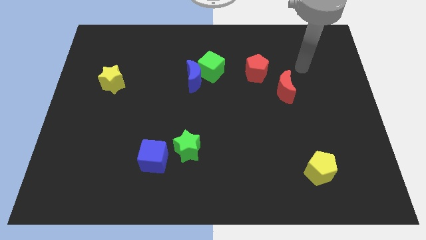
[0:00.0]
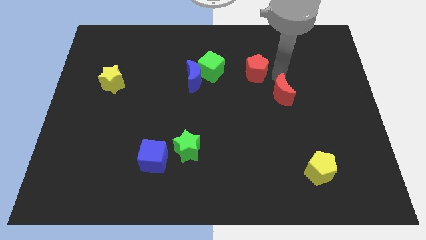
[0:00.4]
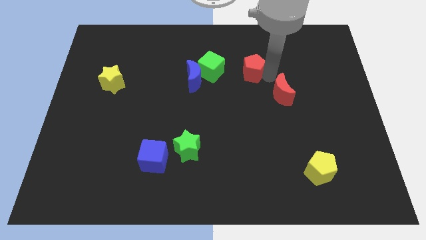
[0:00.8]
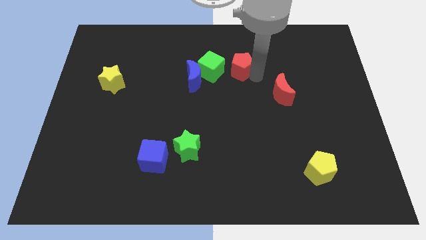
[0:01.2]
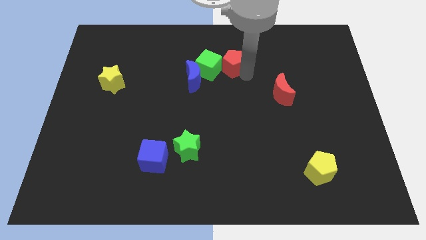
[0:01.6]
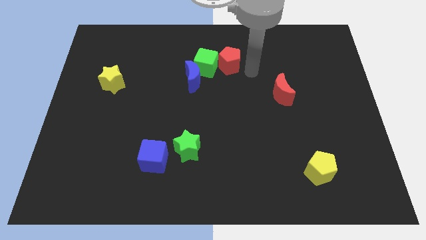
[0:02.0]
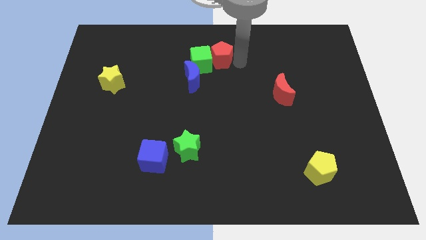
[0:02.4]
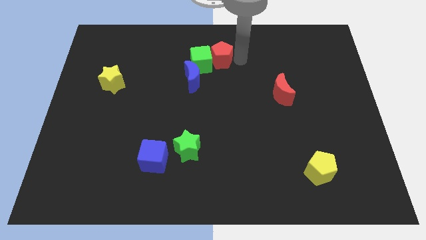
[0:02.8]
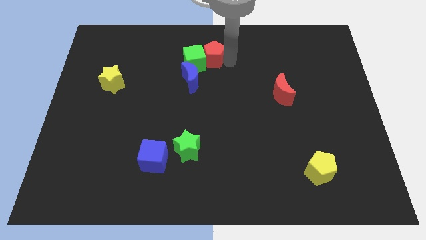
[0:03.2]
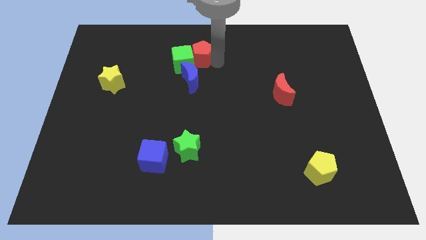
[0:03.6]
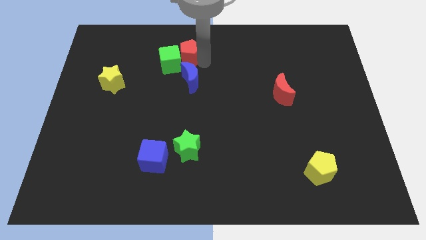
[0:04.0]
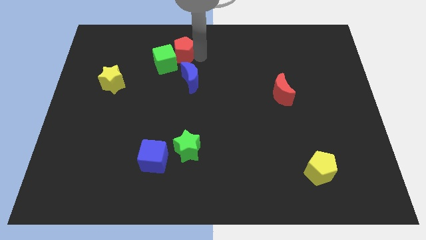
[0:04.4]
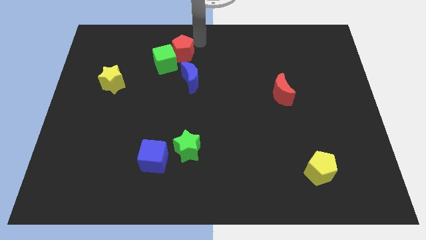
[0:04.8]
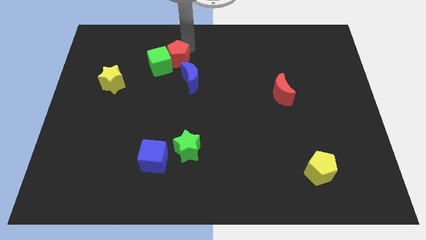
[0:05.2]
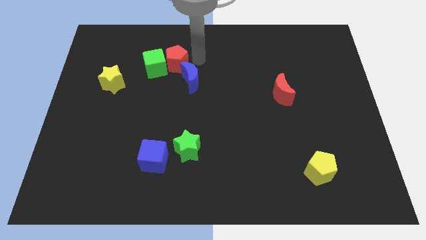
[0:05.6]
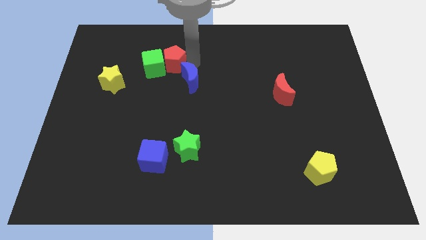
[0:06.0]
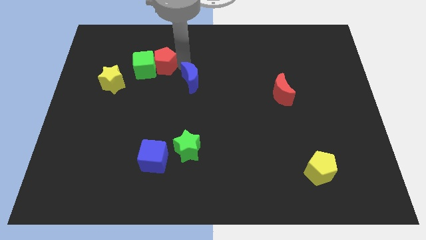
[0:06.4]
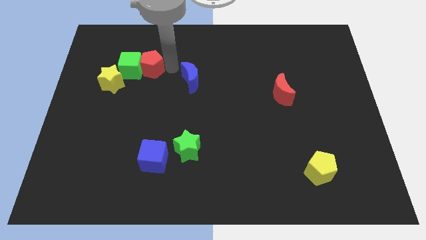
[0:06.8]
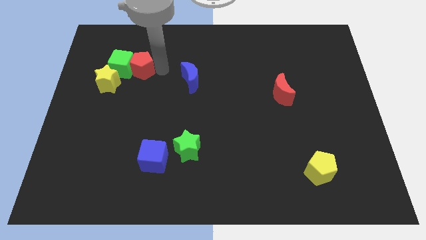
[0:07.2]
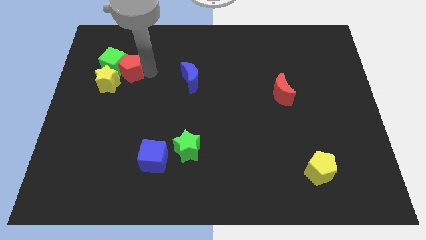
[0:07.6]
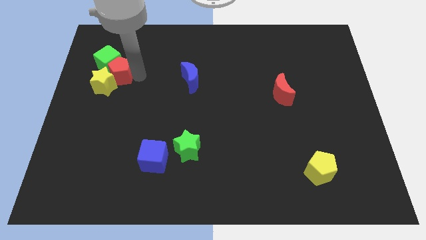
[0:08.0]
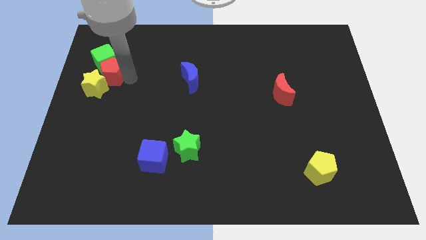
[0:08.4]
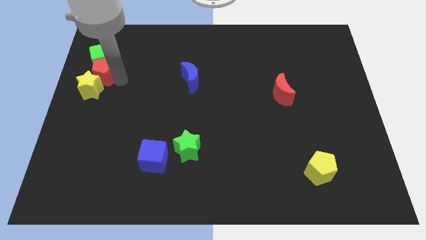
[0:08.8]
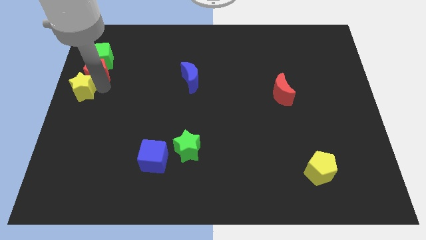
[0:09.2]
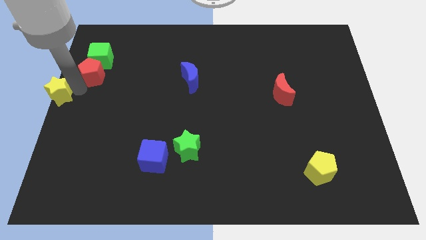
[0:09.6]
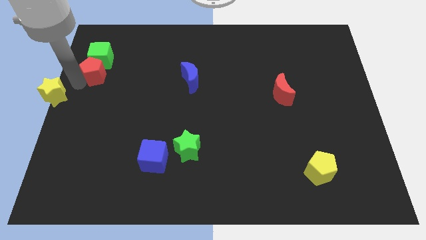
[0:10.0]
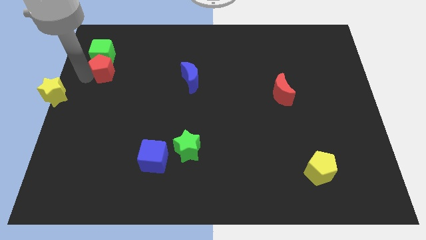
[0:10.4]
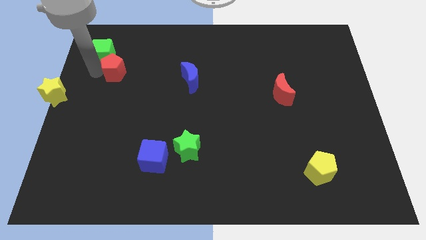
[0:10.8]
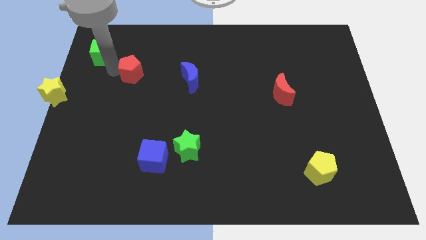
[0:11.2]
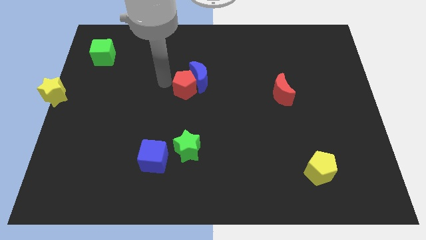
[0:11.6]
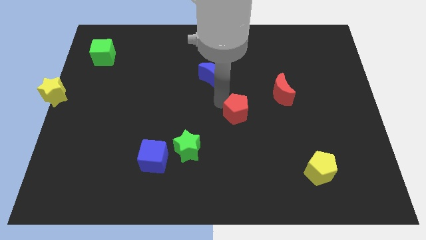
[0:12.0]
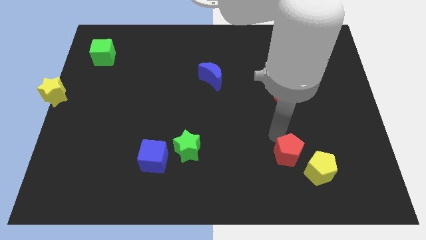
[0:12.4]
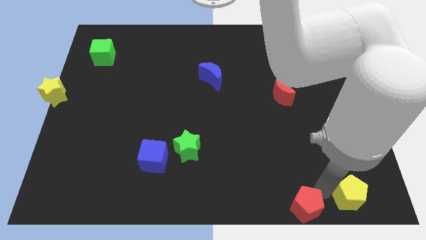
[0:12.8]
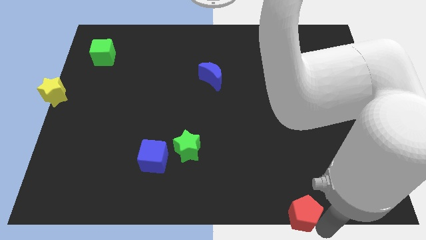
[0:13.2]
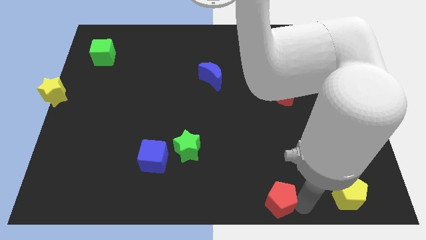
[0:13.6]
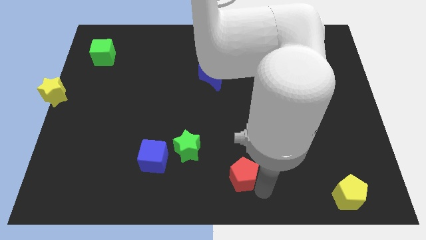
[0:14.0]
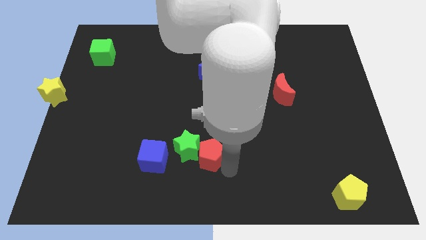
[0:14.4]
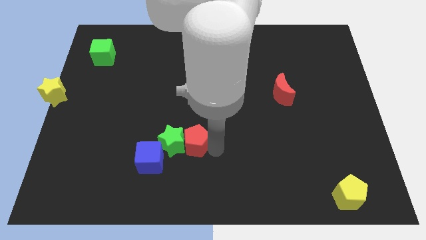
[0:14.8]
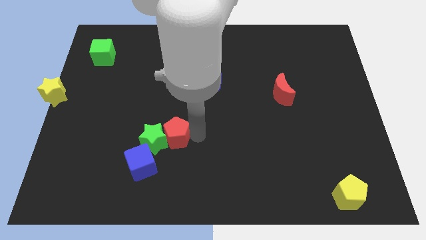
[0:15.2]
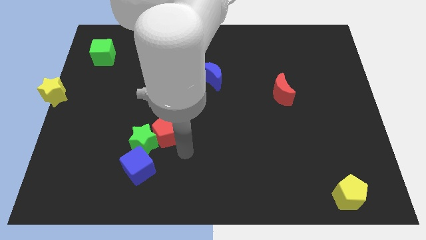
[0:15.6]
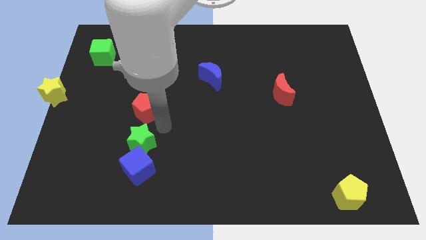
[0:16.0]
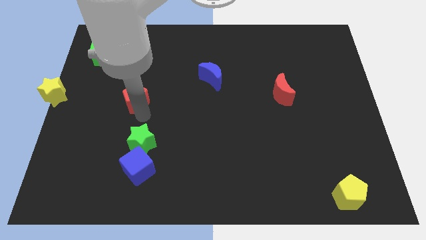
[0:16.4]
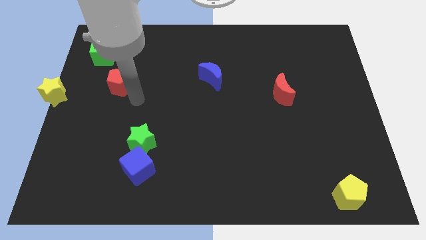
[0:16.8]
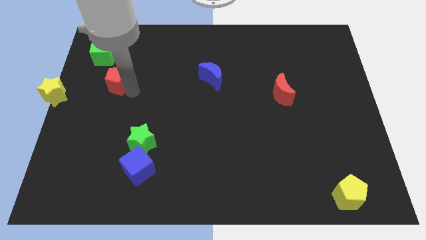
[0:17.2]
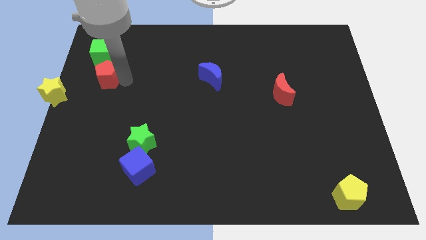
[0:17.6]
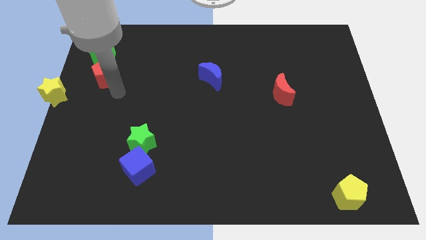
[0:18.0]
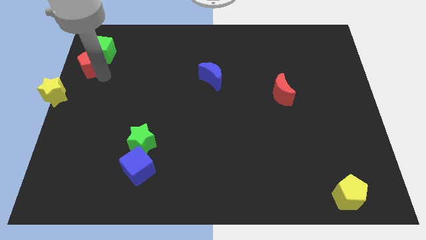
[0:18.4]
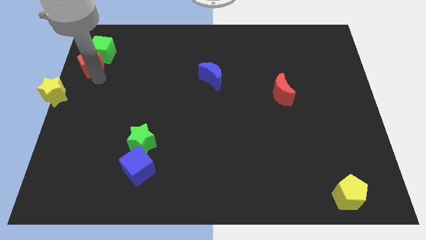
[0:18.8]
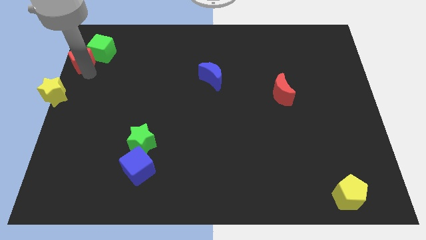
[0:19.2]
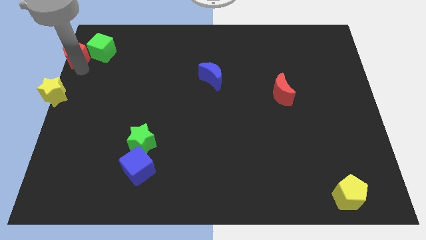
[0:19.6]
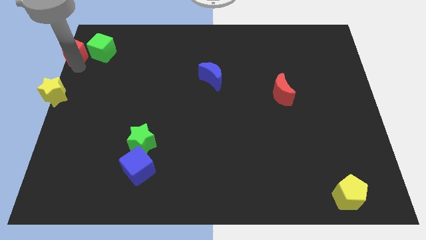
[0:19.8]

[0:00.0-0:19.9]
slide the red pentagon to the top left of the board

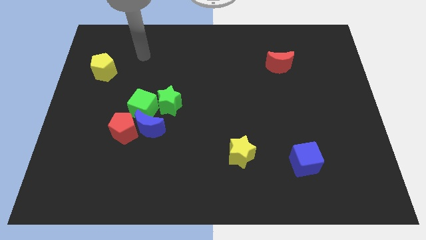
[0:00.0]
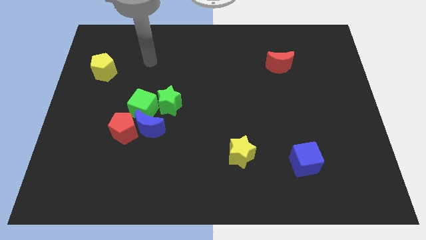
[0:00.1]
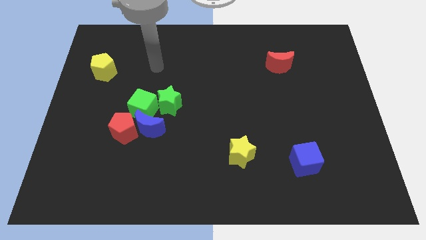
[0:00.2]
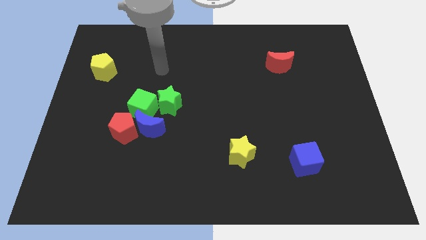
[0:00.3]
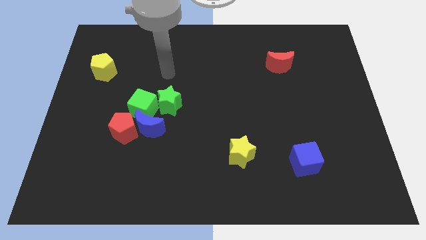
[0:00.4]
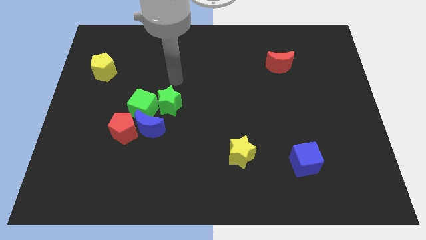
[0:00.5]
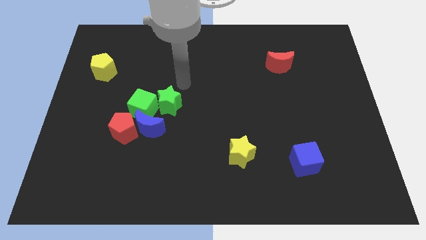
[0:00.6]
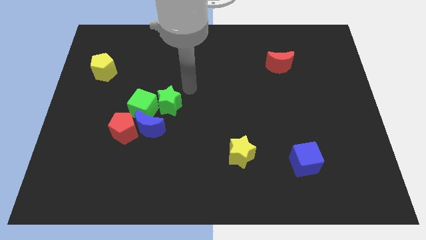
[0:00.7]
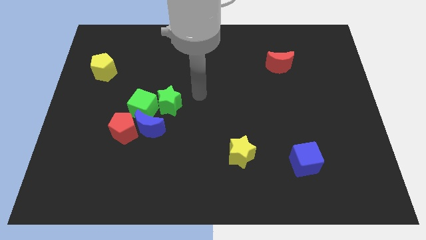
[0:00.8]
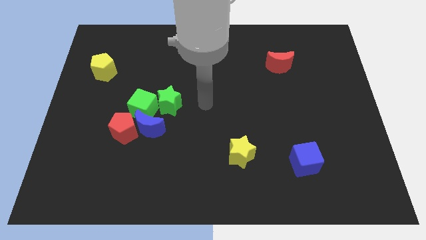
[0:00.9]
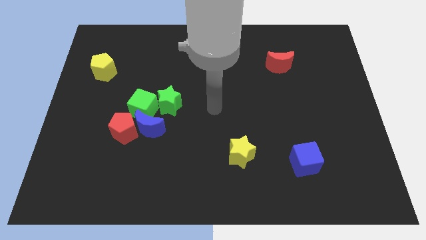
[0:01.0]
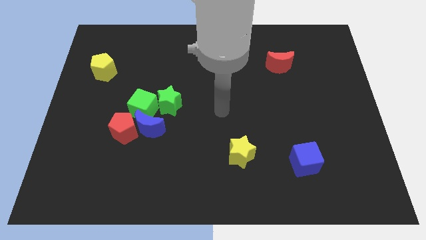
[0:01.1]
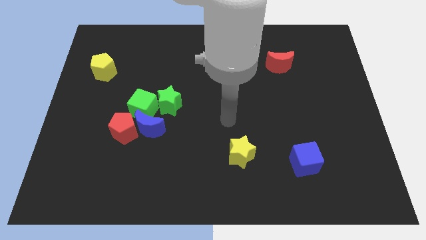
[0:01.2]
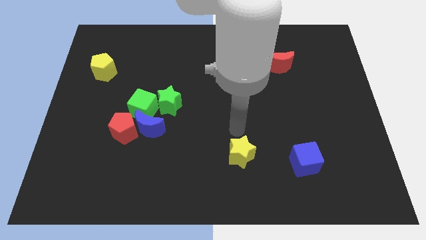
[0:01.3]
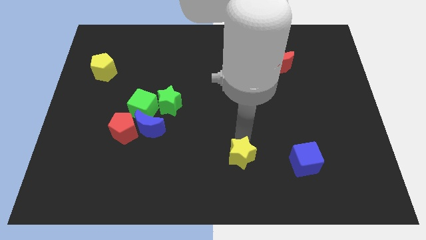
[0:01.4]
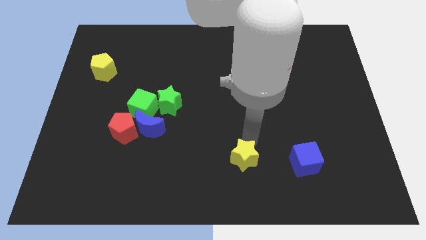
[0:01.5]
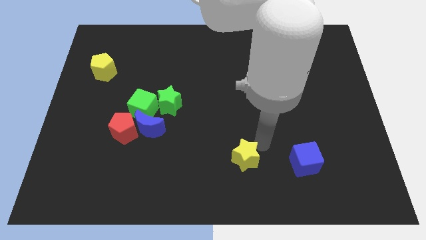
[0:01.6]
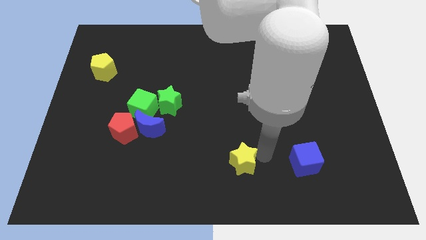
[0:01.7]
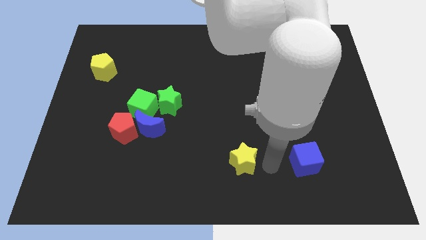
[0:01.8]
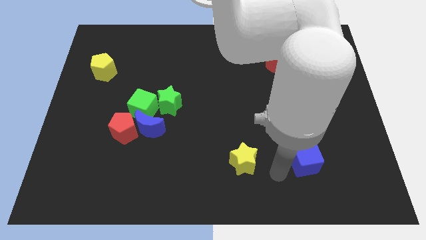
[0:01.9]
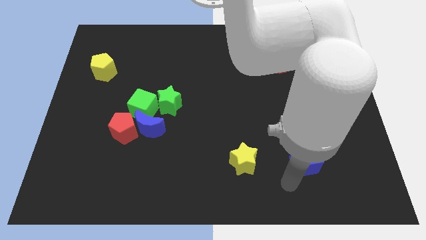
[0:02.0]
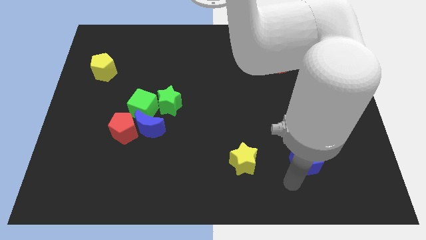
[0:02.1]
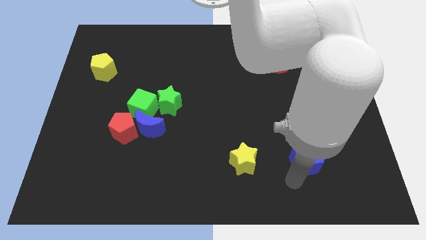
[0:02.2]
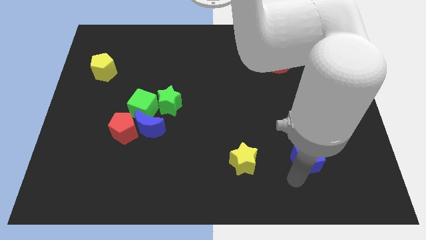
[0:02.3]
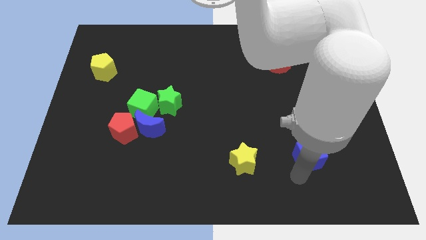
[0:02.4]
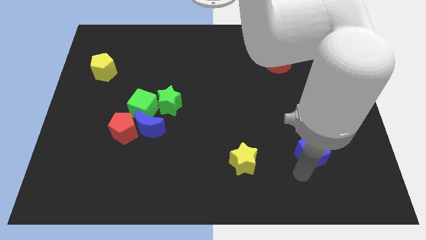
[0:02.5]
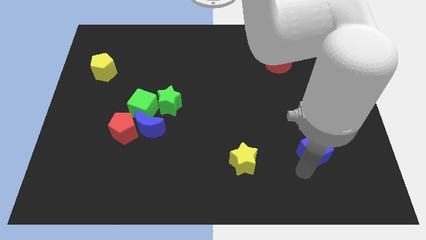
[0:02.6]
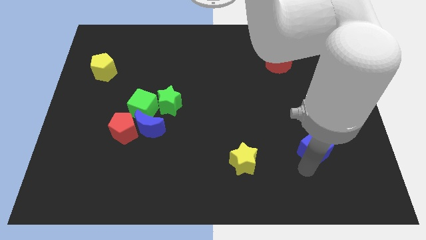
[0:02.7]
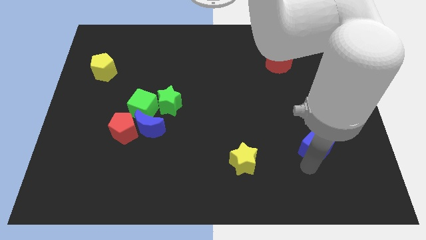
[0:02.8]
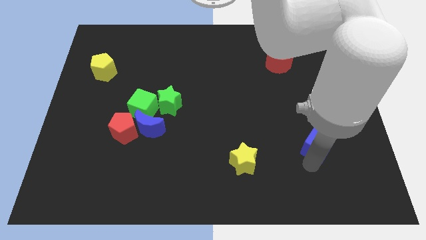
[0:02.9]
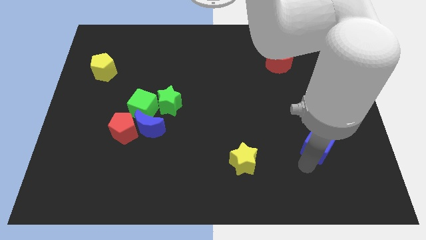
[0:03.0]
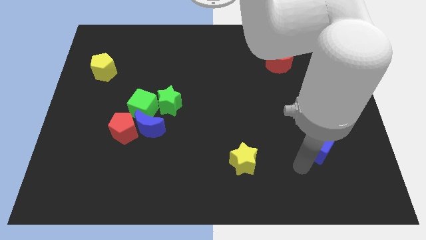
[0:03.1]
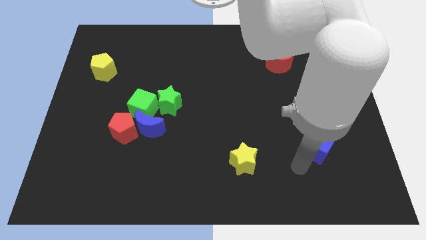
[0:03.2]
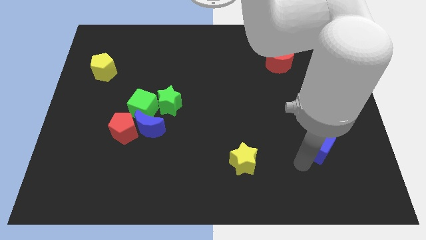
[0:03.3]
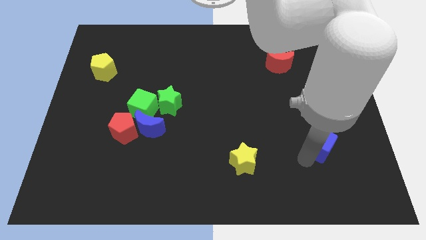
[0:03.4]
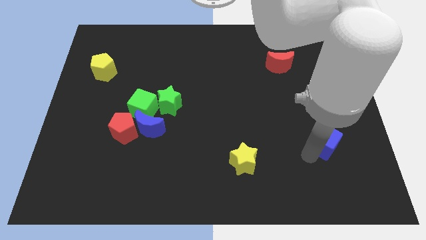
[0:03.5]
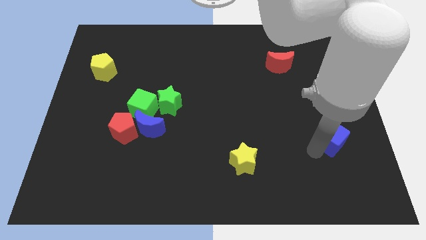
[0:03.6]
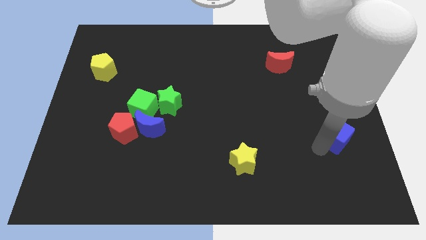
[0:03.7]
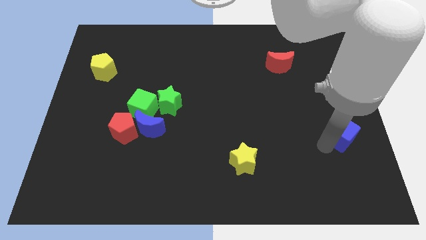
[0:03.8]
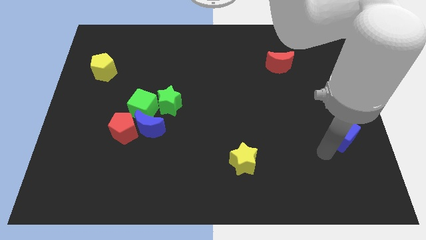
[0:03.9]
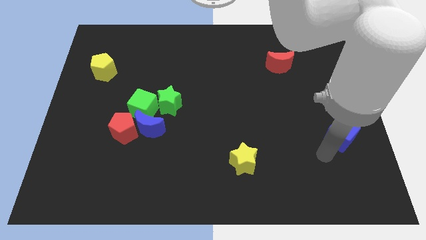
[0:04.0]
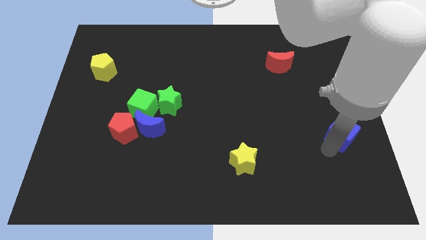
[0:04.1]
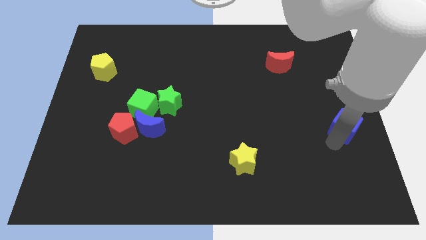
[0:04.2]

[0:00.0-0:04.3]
move the blue cube to the right side
